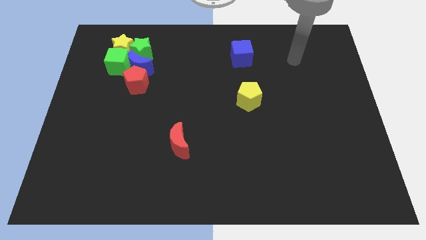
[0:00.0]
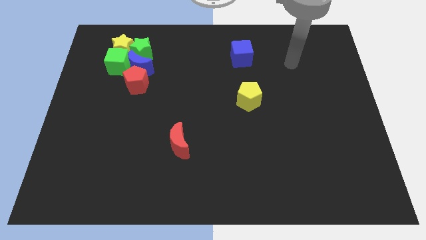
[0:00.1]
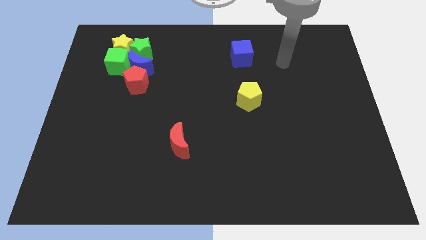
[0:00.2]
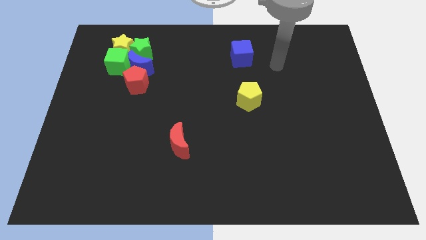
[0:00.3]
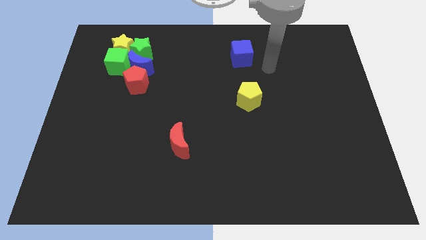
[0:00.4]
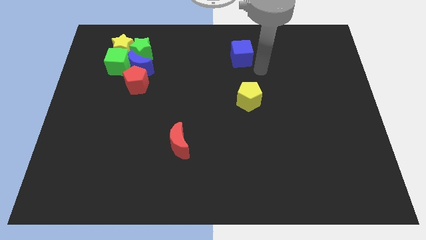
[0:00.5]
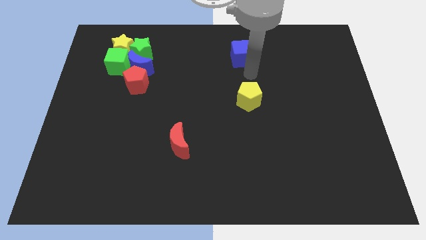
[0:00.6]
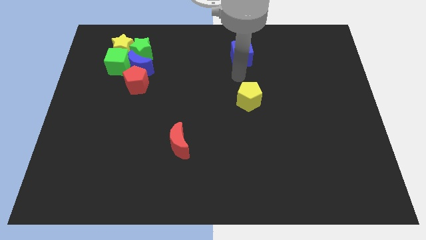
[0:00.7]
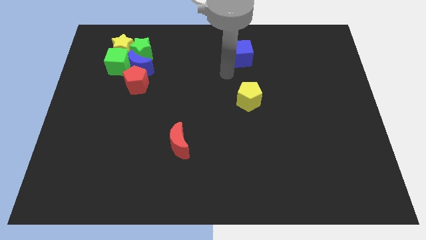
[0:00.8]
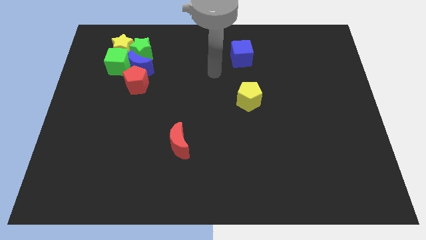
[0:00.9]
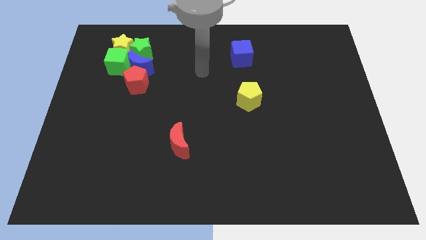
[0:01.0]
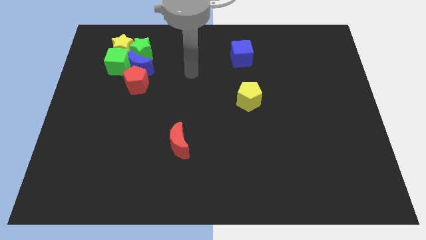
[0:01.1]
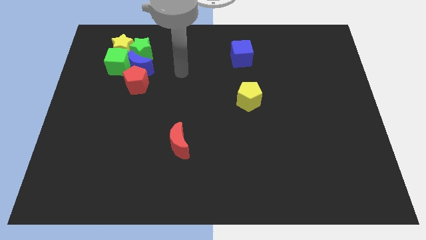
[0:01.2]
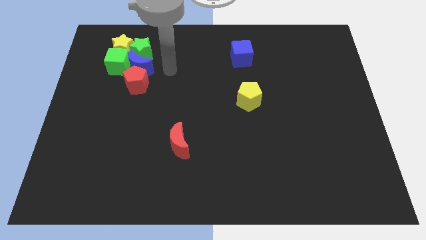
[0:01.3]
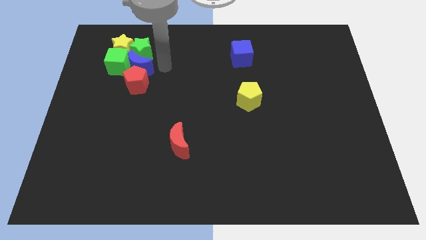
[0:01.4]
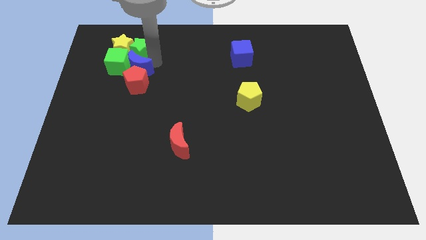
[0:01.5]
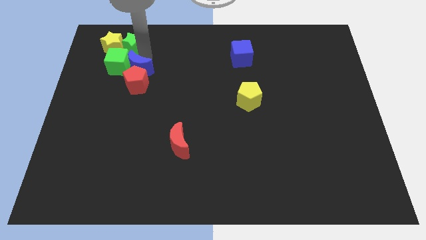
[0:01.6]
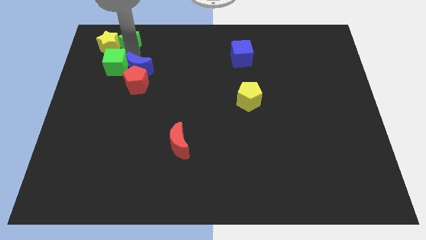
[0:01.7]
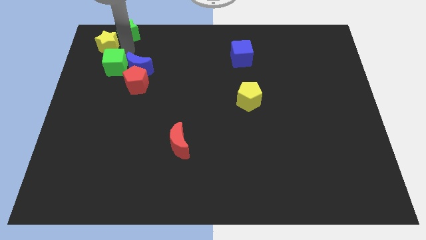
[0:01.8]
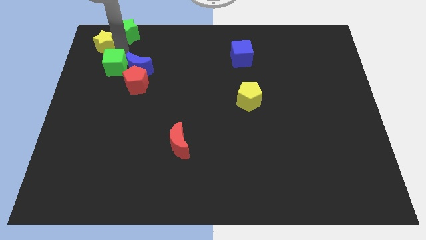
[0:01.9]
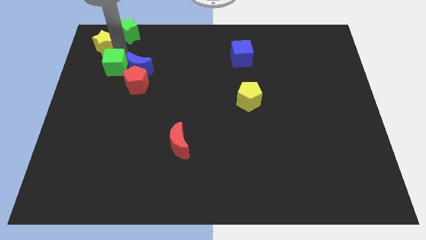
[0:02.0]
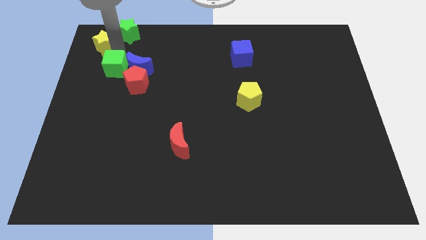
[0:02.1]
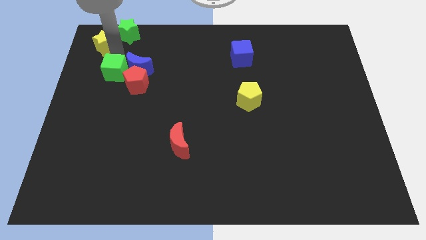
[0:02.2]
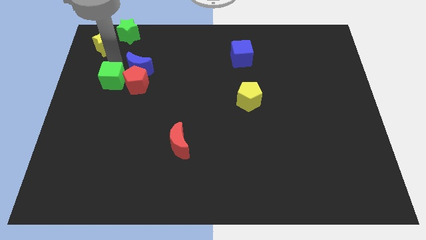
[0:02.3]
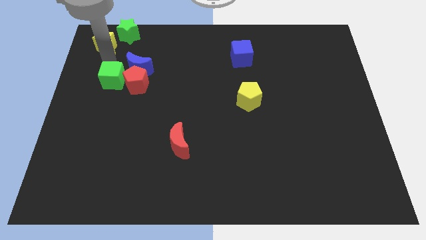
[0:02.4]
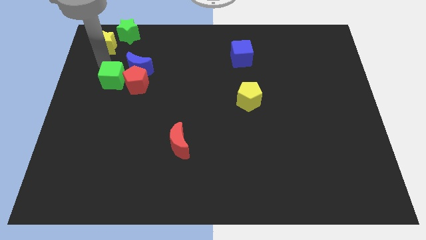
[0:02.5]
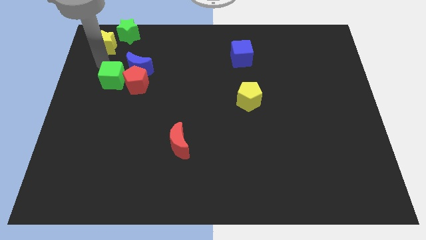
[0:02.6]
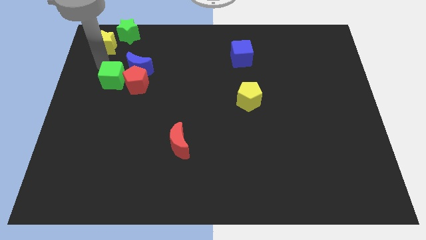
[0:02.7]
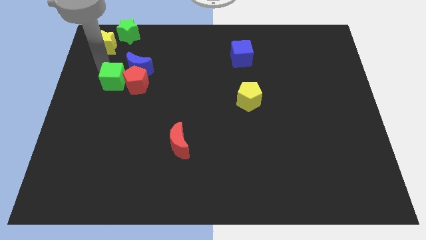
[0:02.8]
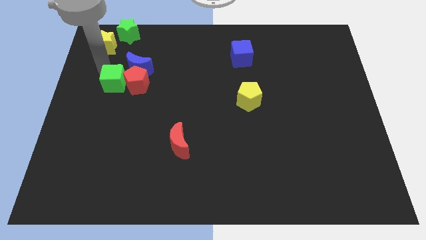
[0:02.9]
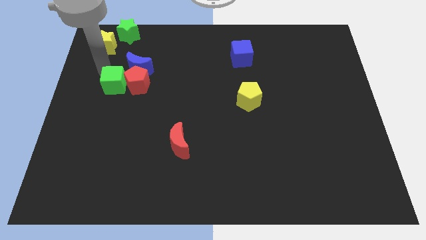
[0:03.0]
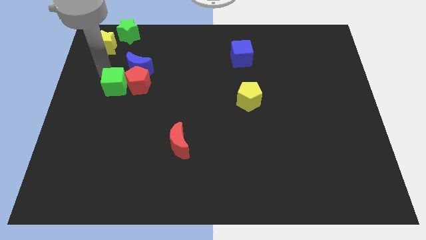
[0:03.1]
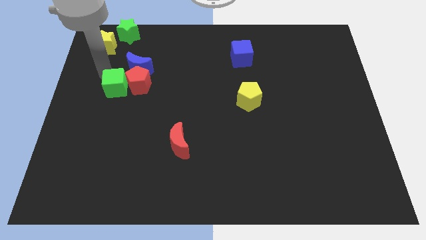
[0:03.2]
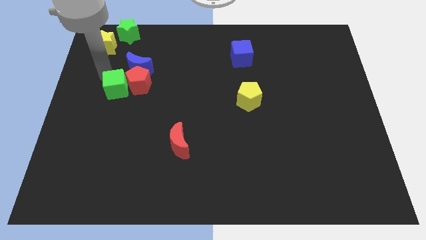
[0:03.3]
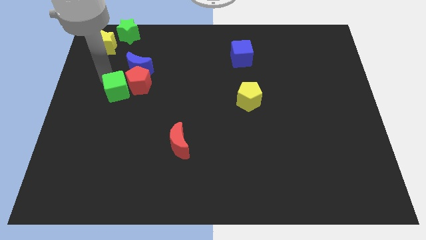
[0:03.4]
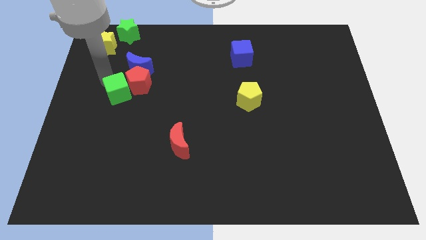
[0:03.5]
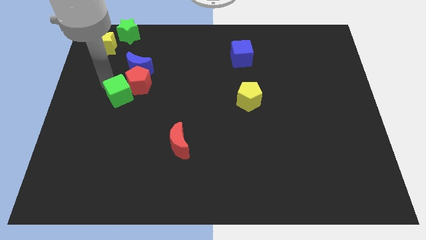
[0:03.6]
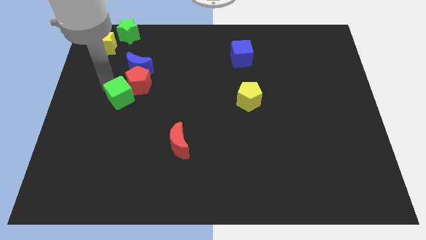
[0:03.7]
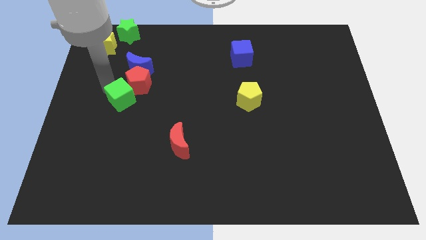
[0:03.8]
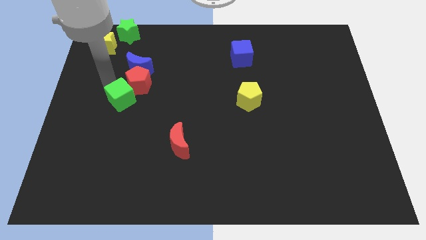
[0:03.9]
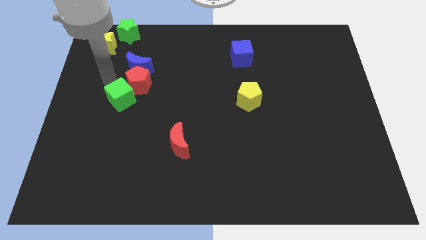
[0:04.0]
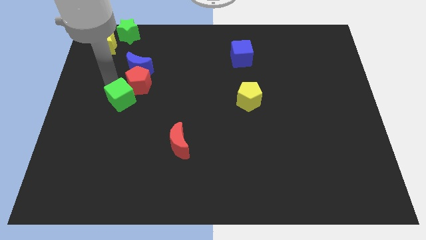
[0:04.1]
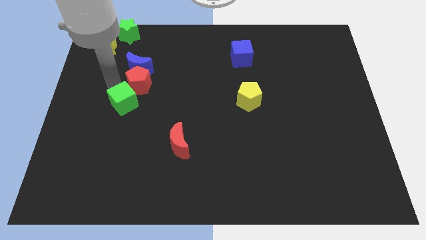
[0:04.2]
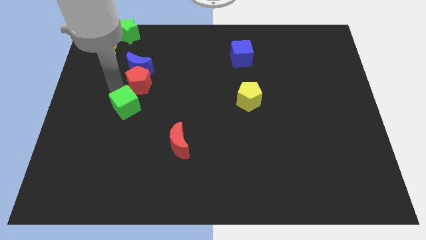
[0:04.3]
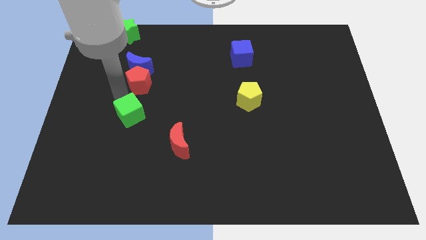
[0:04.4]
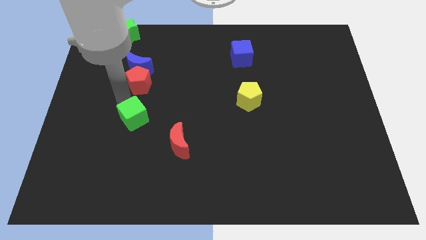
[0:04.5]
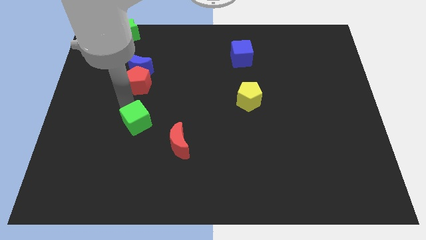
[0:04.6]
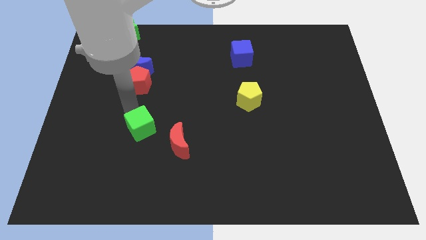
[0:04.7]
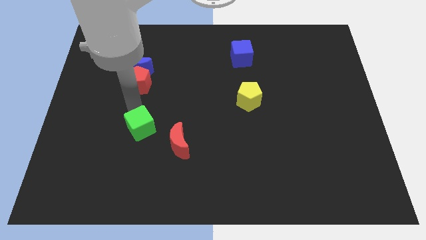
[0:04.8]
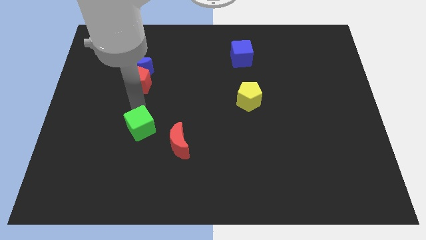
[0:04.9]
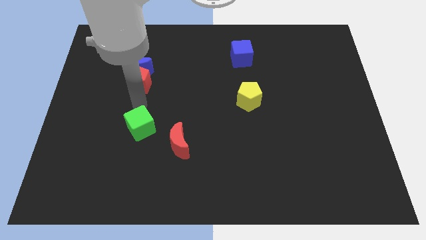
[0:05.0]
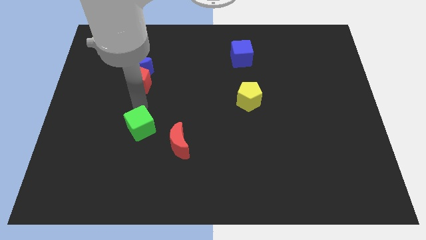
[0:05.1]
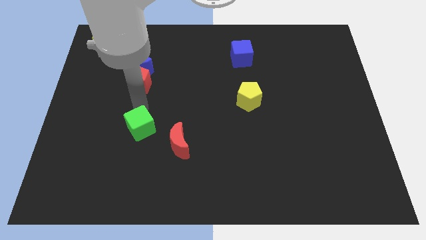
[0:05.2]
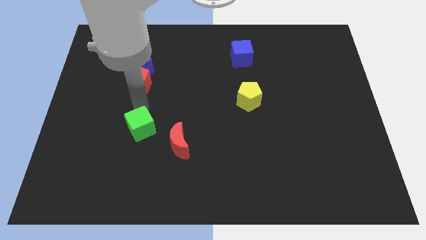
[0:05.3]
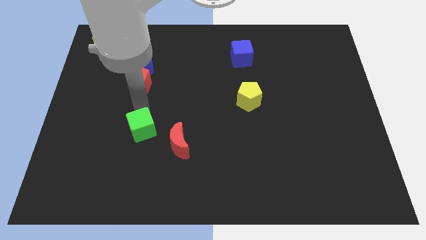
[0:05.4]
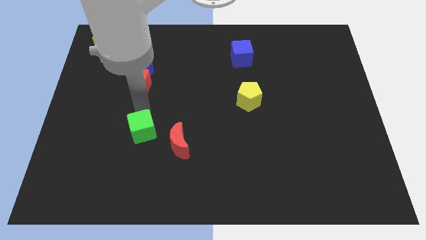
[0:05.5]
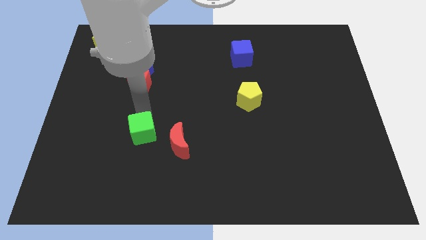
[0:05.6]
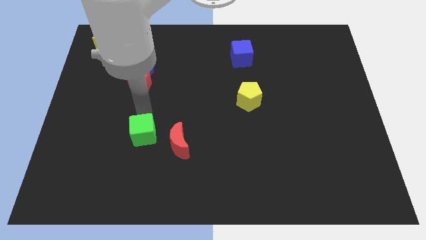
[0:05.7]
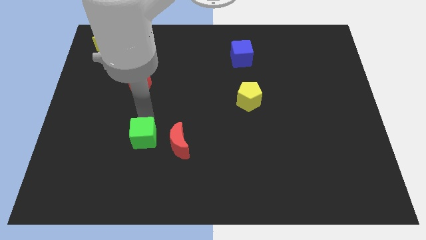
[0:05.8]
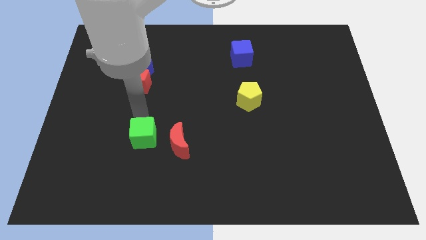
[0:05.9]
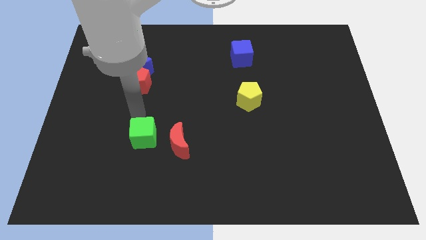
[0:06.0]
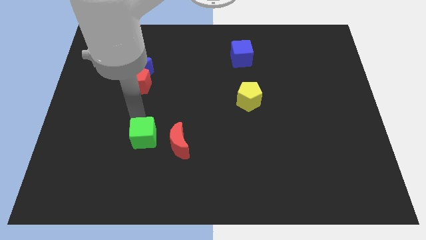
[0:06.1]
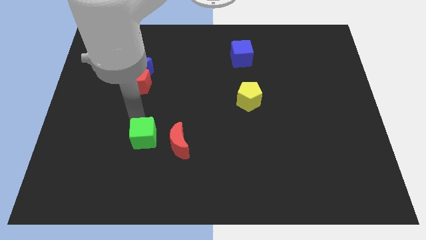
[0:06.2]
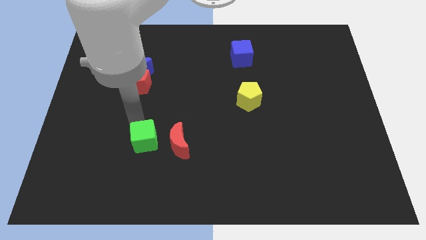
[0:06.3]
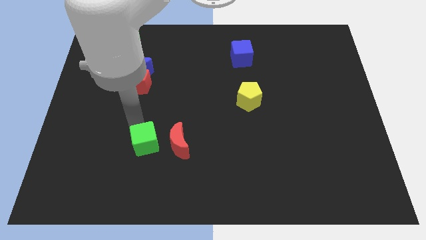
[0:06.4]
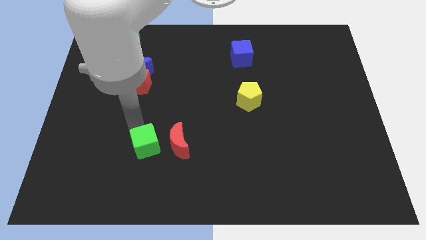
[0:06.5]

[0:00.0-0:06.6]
push the green cube to the bottom left side of the red moon
